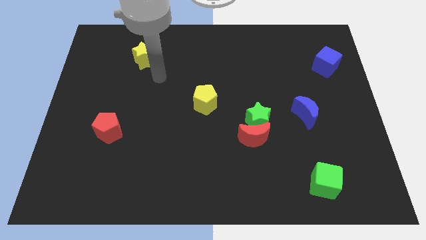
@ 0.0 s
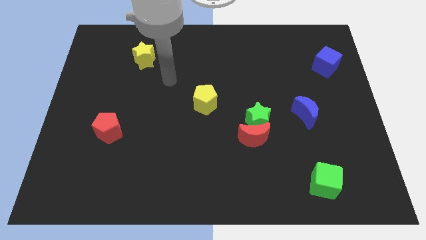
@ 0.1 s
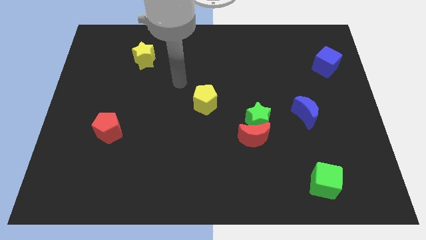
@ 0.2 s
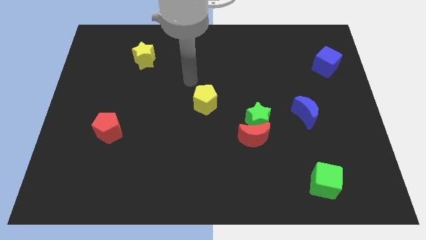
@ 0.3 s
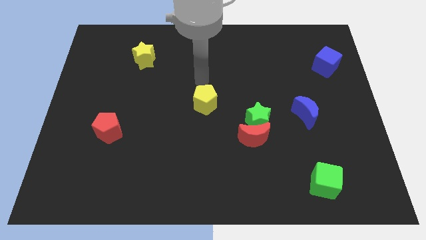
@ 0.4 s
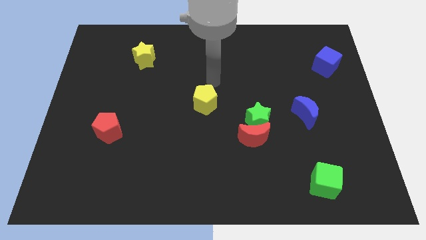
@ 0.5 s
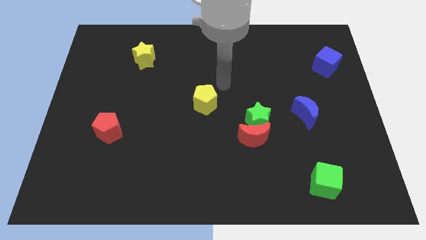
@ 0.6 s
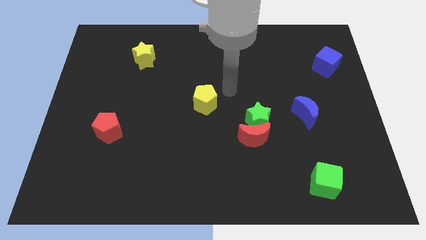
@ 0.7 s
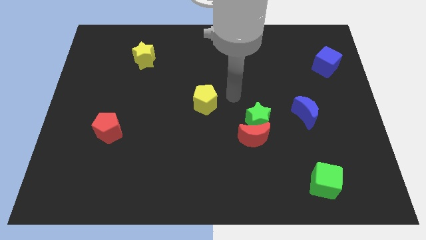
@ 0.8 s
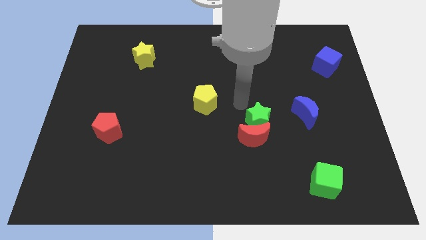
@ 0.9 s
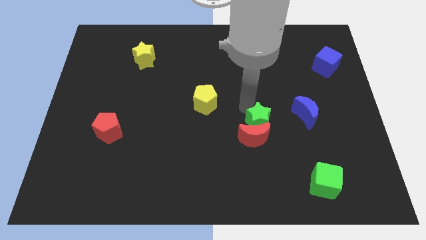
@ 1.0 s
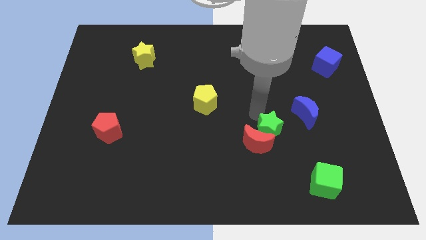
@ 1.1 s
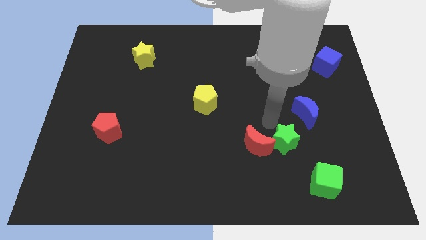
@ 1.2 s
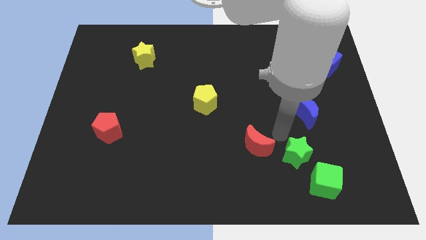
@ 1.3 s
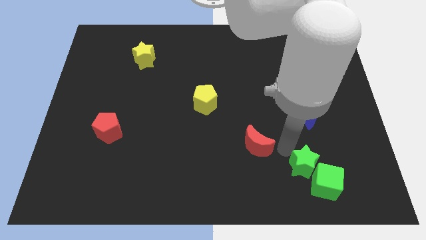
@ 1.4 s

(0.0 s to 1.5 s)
separate the red moon from the green star

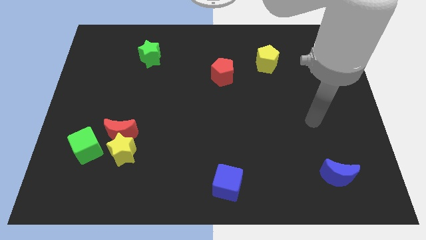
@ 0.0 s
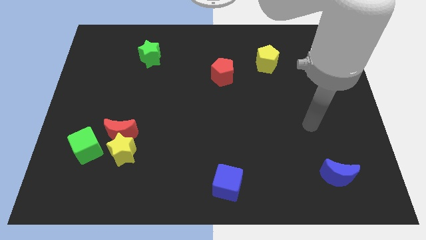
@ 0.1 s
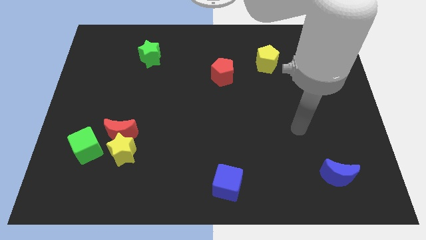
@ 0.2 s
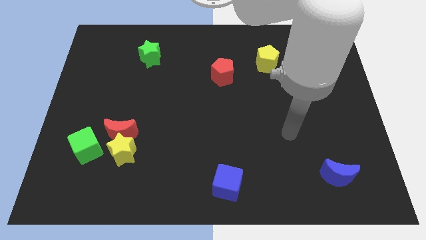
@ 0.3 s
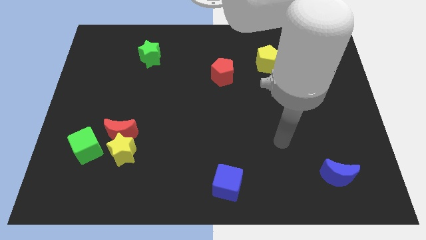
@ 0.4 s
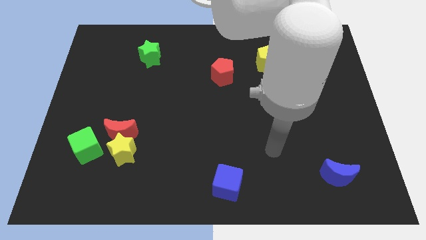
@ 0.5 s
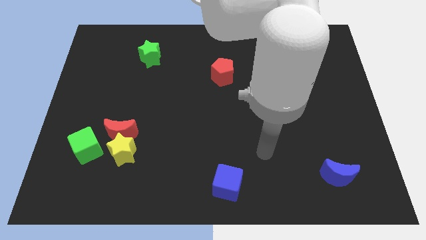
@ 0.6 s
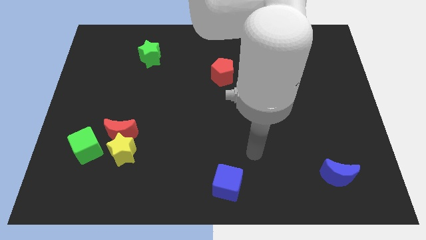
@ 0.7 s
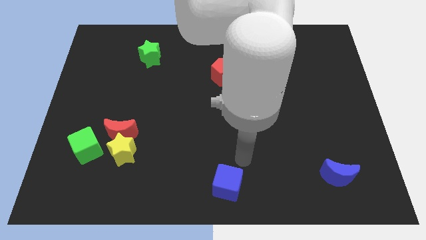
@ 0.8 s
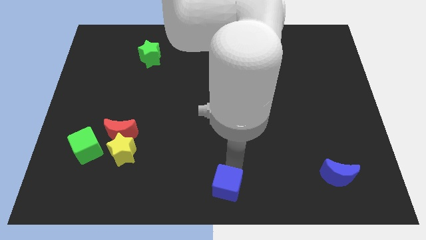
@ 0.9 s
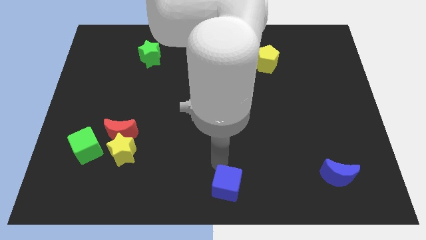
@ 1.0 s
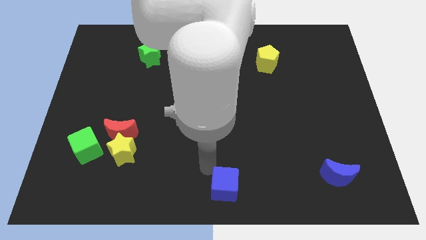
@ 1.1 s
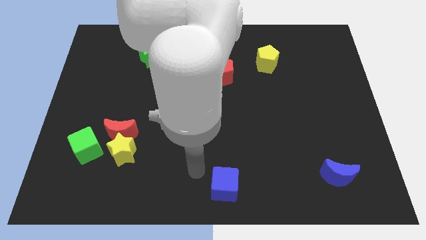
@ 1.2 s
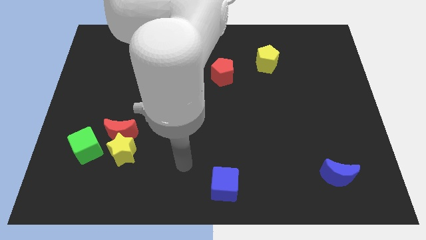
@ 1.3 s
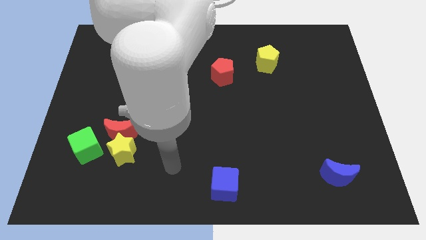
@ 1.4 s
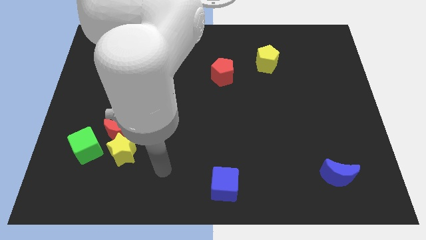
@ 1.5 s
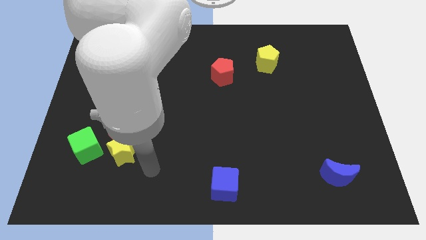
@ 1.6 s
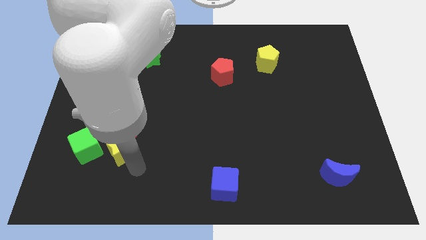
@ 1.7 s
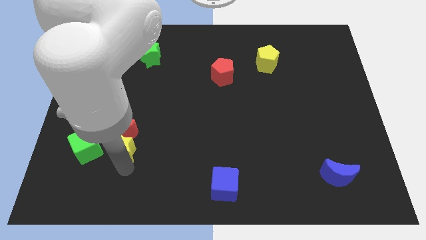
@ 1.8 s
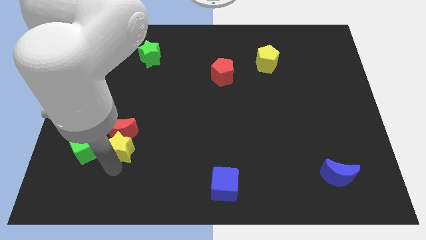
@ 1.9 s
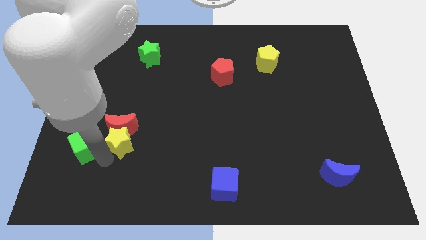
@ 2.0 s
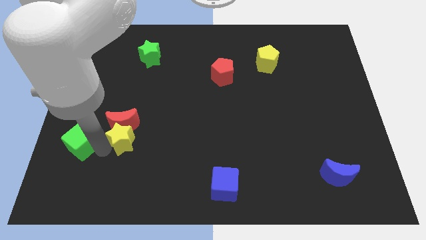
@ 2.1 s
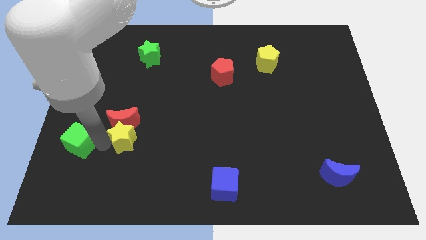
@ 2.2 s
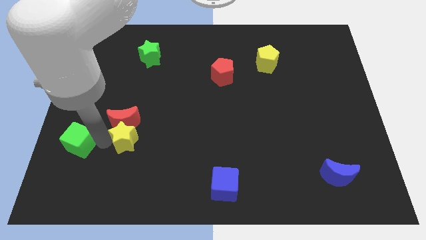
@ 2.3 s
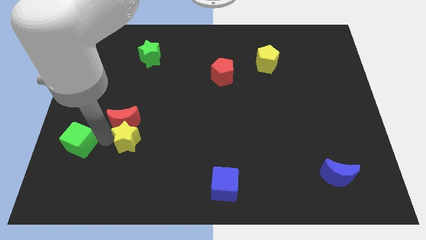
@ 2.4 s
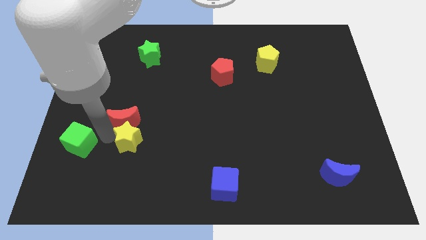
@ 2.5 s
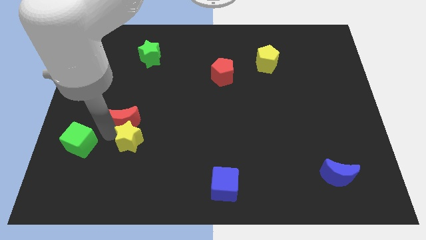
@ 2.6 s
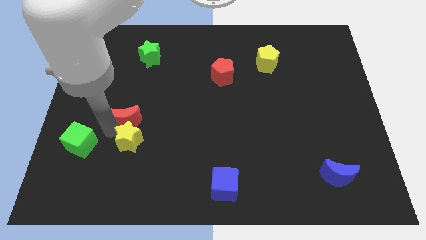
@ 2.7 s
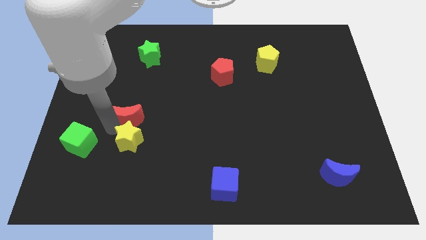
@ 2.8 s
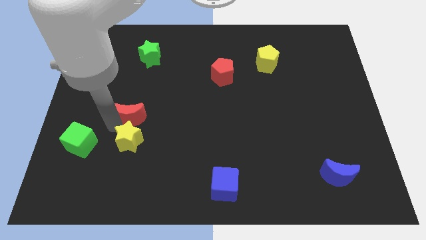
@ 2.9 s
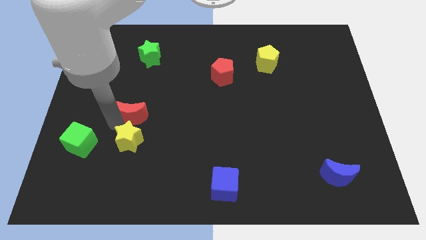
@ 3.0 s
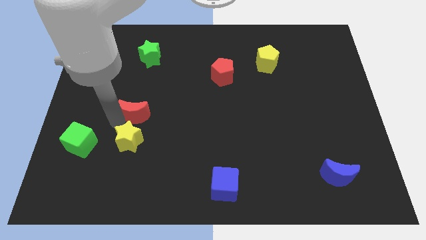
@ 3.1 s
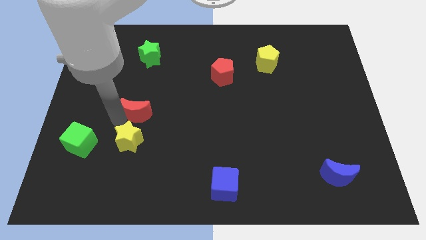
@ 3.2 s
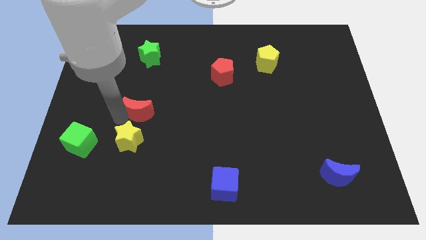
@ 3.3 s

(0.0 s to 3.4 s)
separate the red moon from the yellow star and green cube

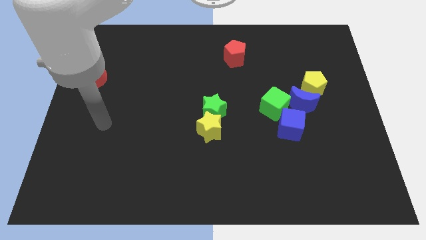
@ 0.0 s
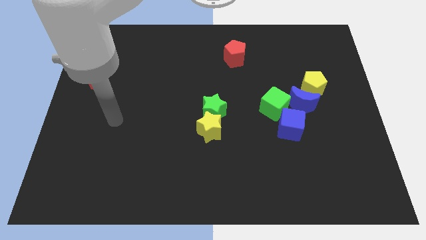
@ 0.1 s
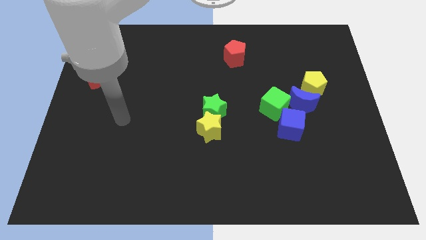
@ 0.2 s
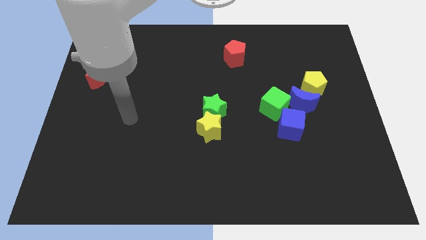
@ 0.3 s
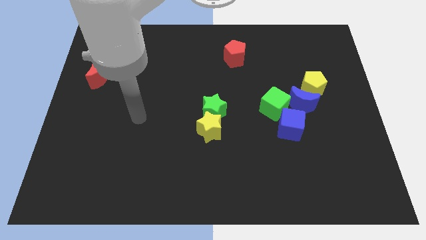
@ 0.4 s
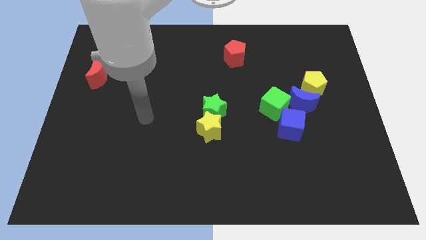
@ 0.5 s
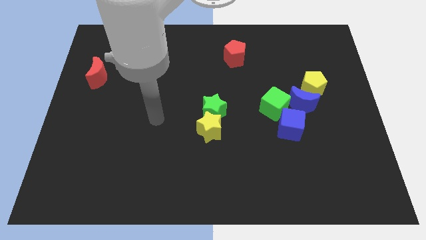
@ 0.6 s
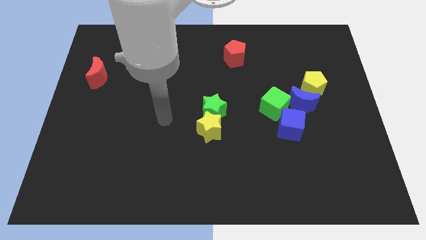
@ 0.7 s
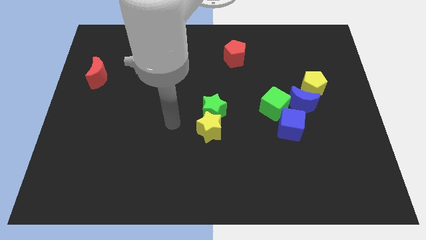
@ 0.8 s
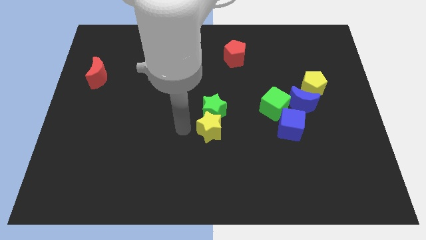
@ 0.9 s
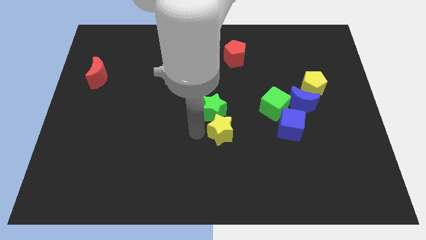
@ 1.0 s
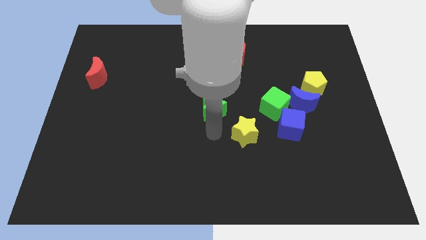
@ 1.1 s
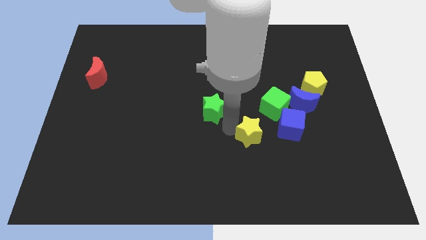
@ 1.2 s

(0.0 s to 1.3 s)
separate the green star from the yellow star

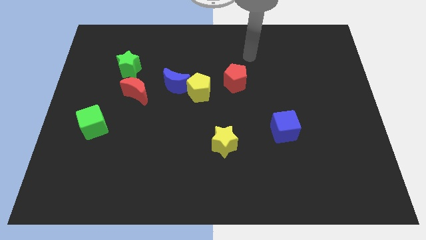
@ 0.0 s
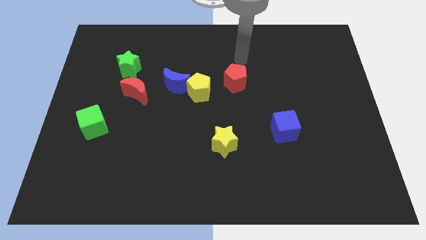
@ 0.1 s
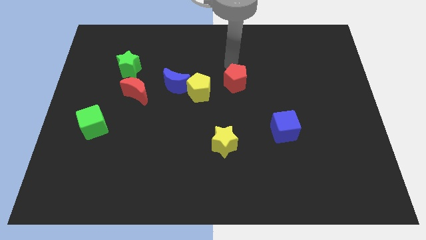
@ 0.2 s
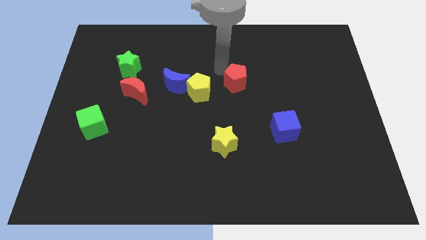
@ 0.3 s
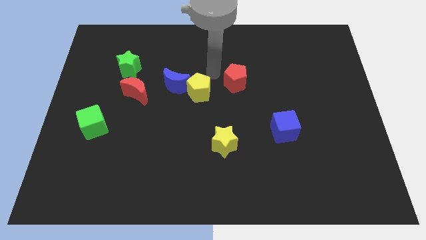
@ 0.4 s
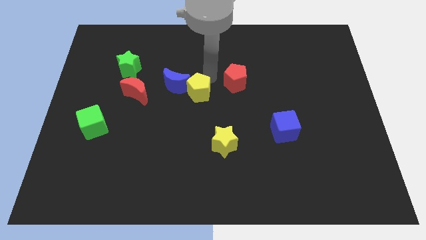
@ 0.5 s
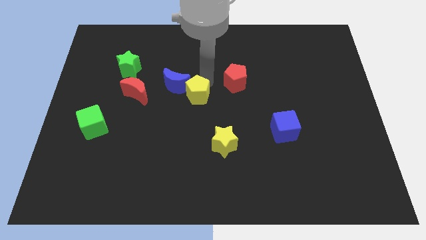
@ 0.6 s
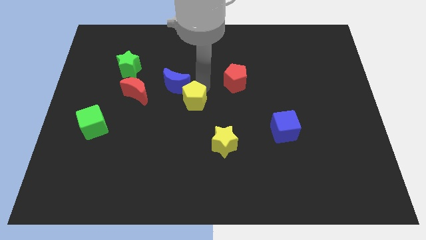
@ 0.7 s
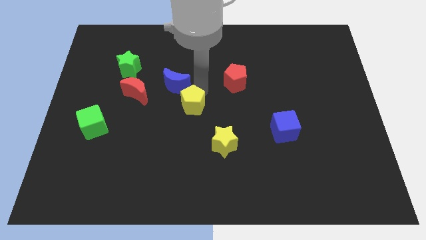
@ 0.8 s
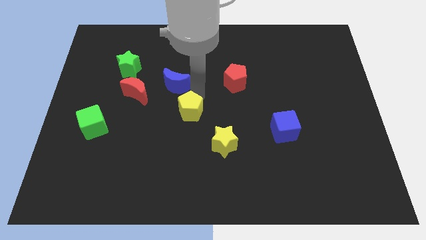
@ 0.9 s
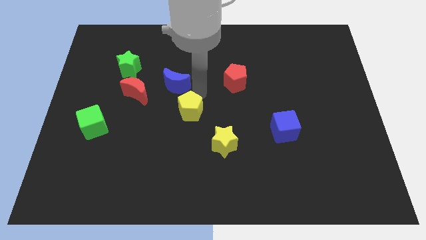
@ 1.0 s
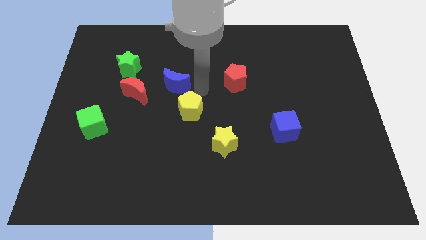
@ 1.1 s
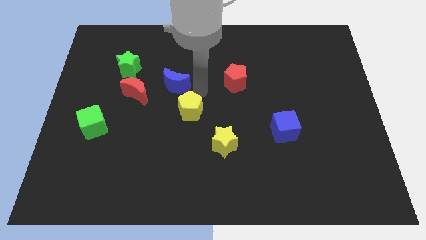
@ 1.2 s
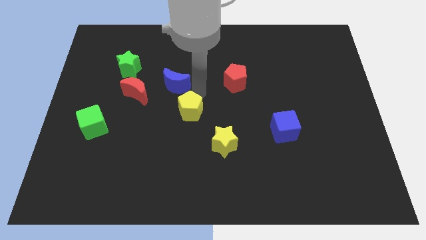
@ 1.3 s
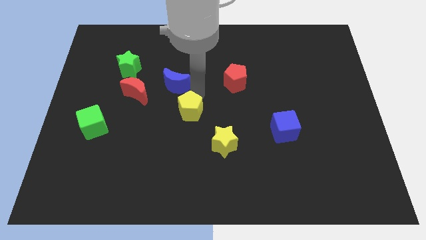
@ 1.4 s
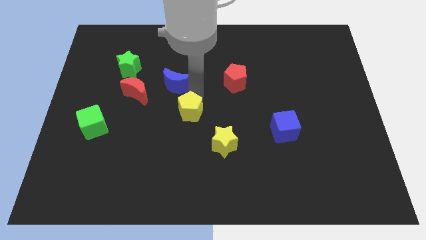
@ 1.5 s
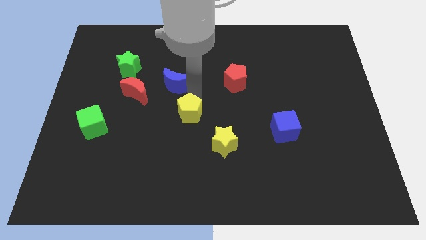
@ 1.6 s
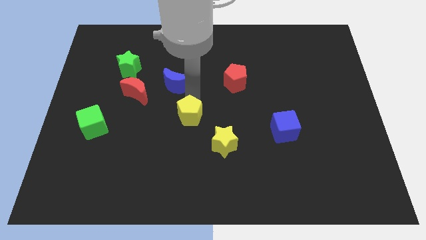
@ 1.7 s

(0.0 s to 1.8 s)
move the yellow pentagon away from the blue moon and red pentagon

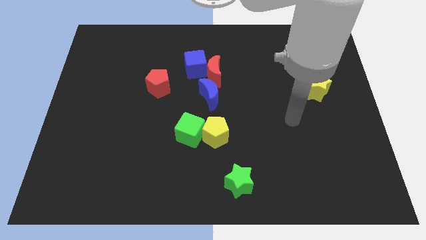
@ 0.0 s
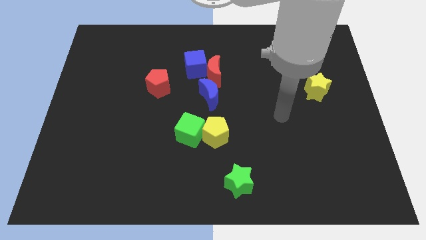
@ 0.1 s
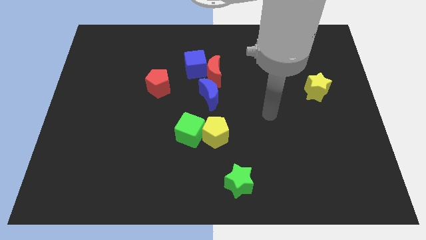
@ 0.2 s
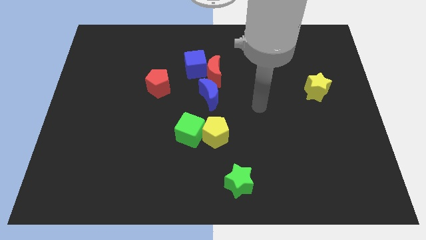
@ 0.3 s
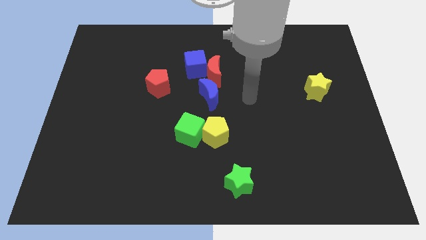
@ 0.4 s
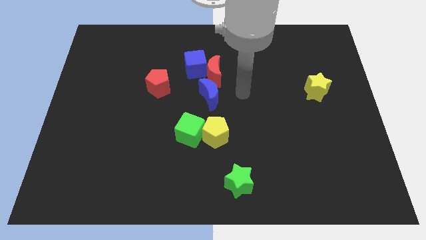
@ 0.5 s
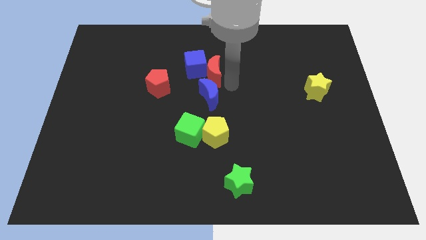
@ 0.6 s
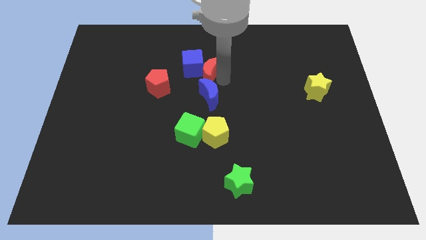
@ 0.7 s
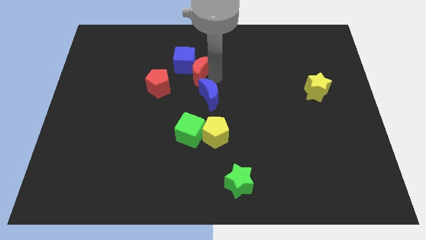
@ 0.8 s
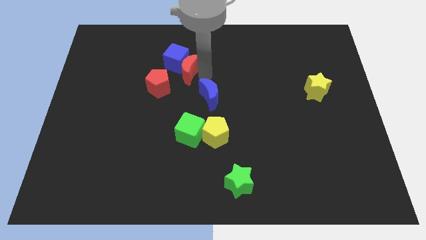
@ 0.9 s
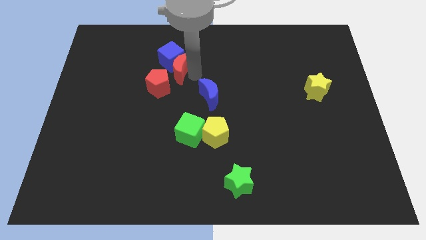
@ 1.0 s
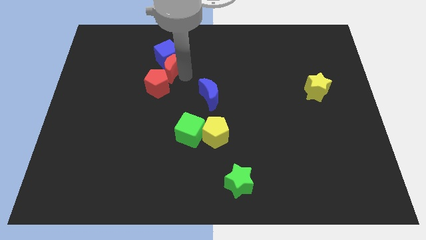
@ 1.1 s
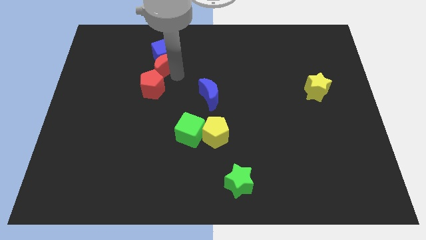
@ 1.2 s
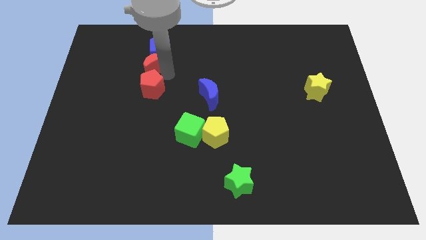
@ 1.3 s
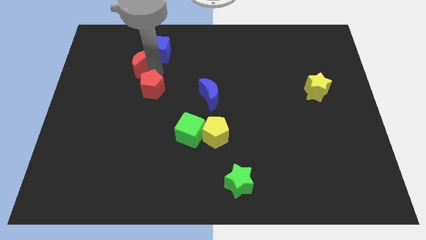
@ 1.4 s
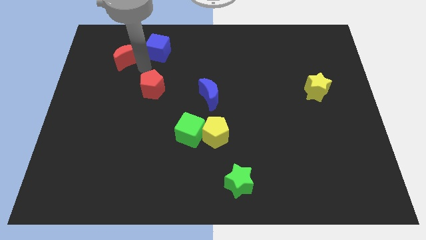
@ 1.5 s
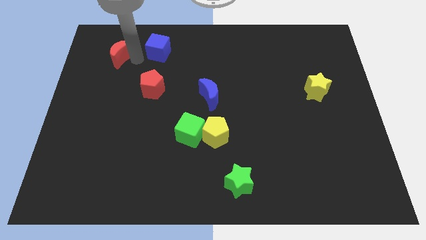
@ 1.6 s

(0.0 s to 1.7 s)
move the blue cube away from the red moon
